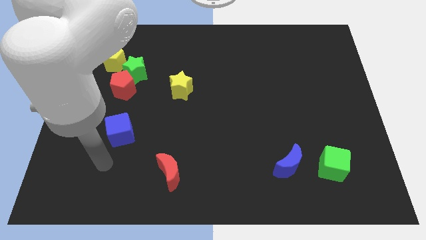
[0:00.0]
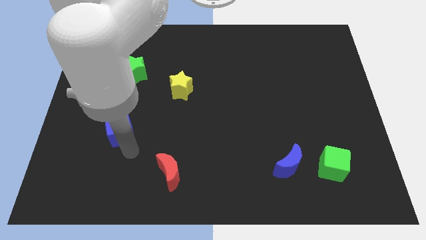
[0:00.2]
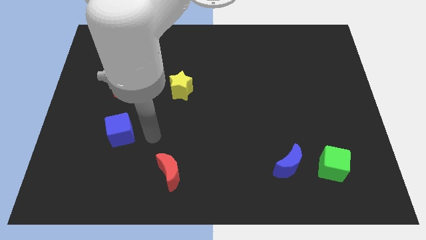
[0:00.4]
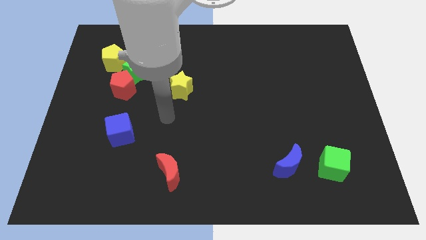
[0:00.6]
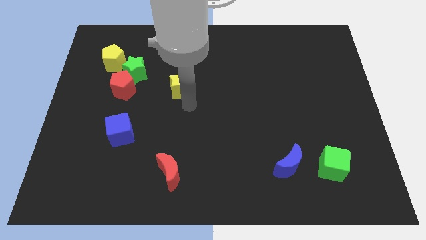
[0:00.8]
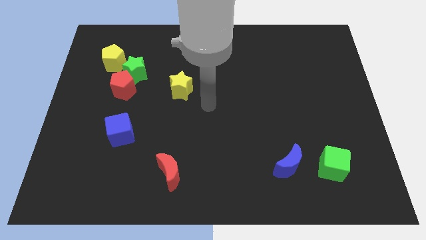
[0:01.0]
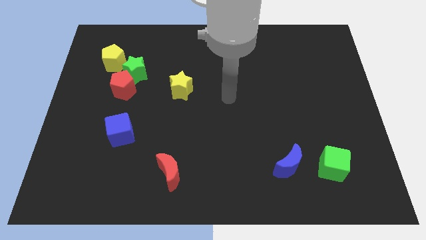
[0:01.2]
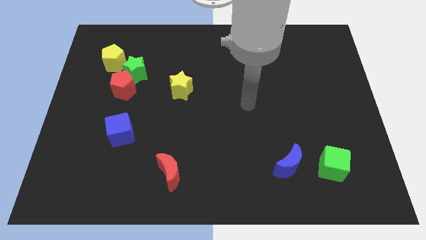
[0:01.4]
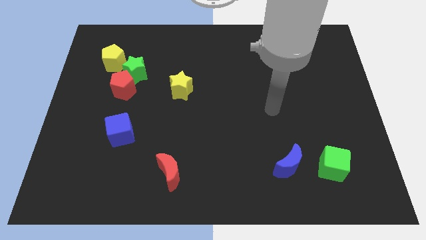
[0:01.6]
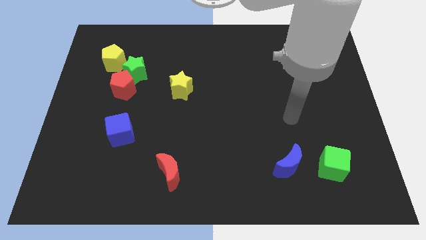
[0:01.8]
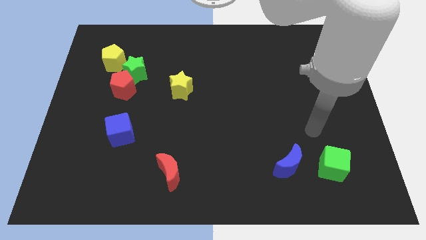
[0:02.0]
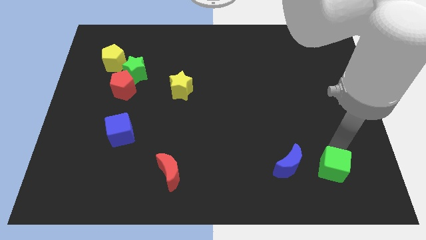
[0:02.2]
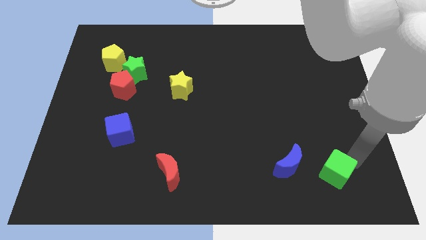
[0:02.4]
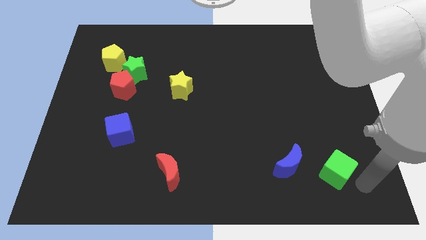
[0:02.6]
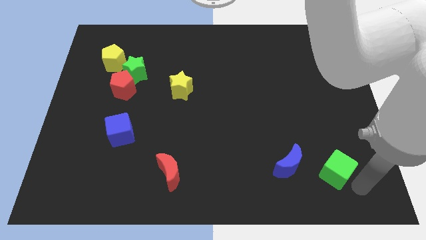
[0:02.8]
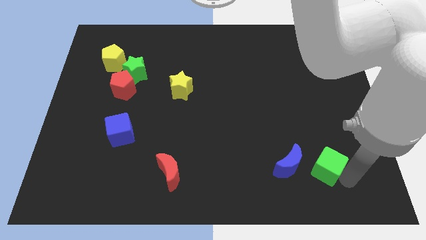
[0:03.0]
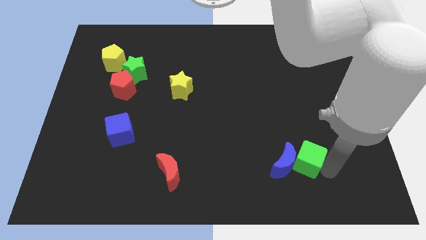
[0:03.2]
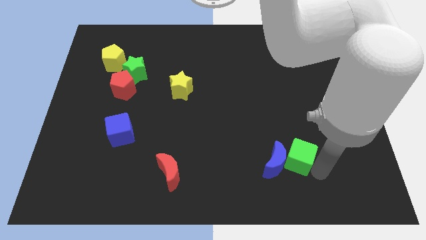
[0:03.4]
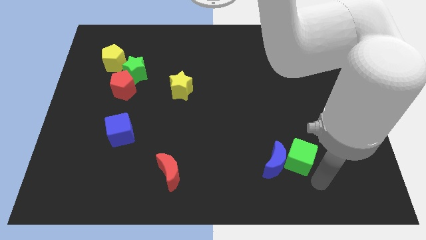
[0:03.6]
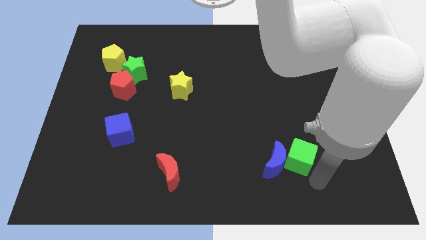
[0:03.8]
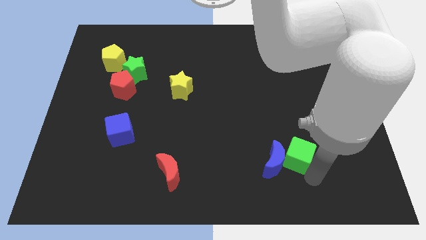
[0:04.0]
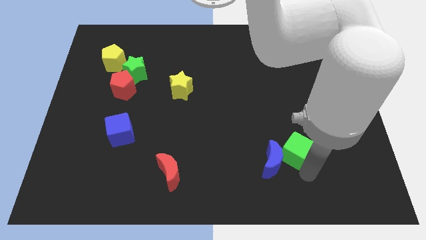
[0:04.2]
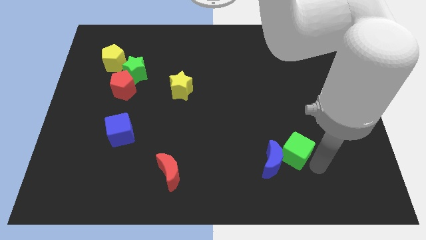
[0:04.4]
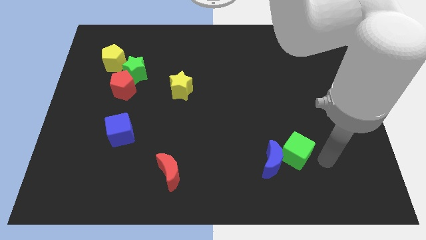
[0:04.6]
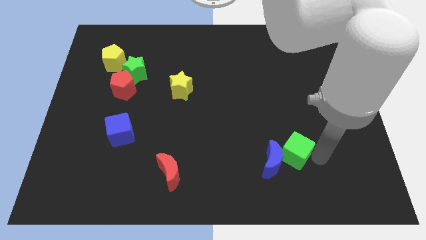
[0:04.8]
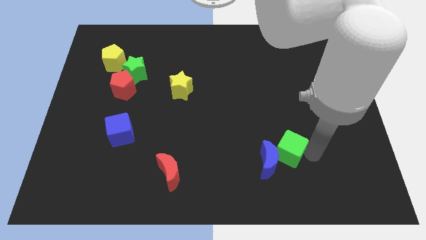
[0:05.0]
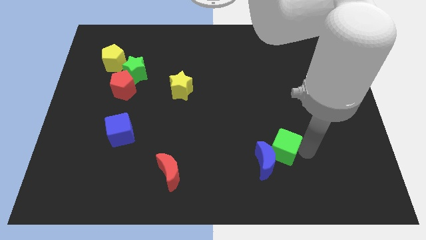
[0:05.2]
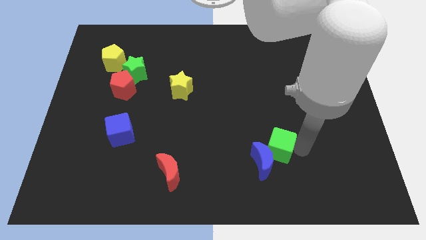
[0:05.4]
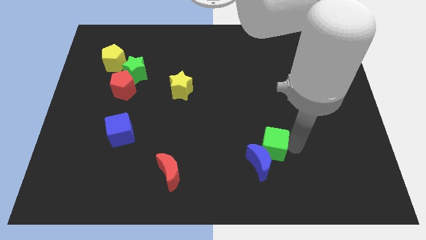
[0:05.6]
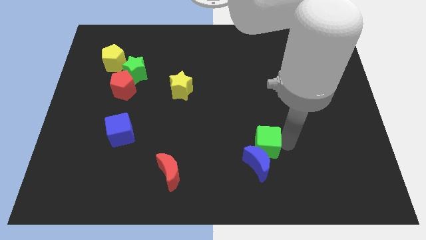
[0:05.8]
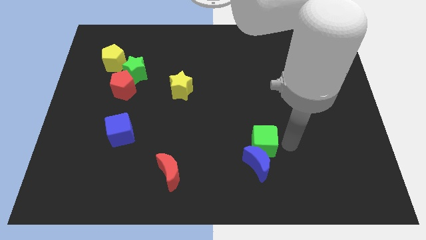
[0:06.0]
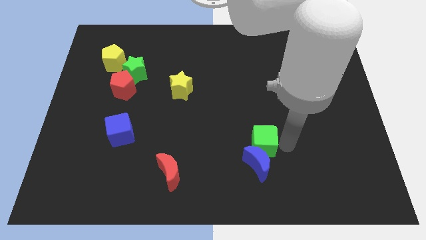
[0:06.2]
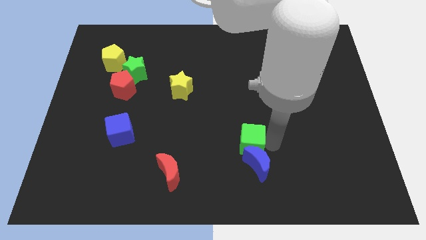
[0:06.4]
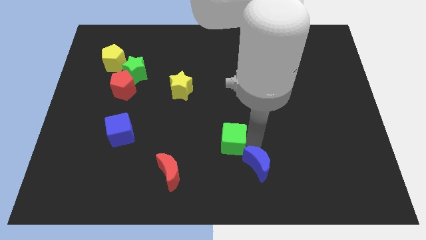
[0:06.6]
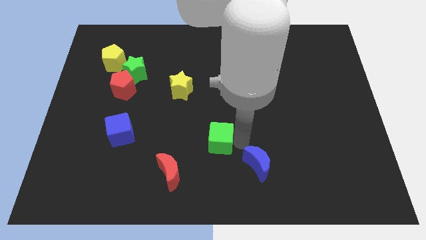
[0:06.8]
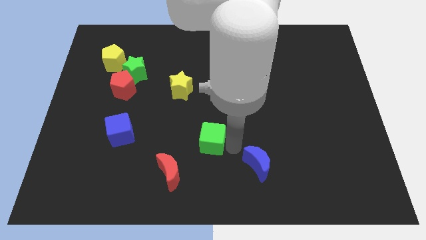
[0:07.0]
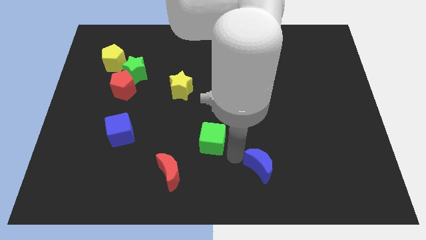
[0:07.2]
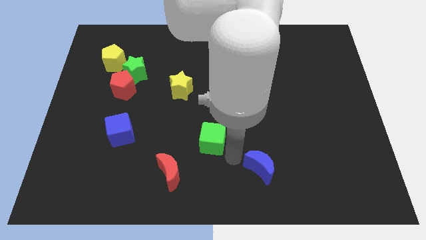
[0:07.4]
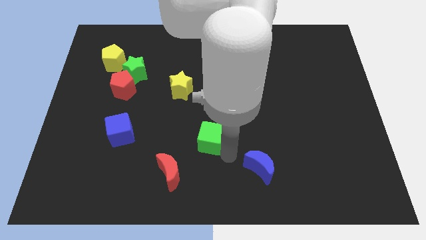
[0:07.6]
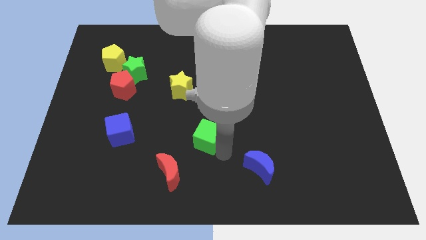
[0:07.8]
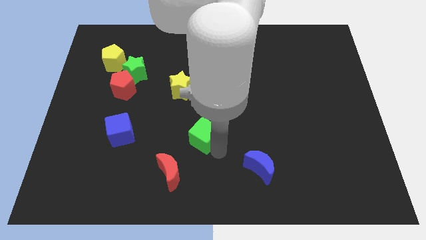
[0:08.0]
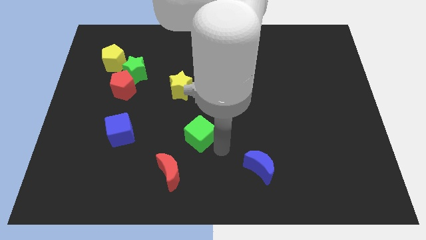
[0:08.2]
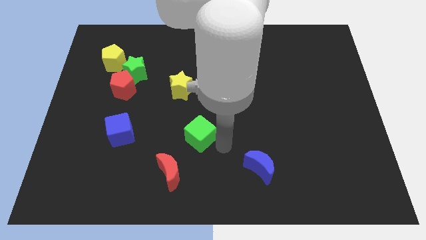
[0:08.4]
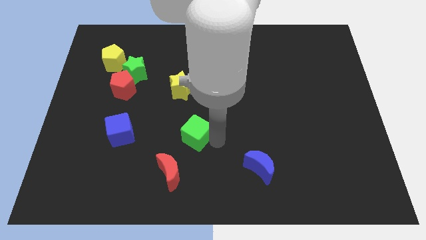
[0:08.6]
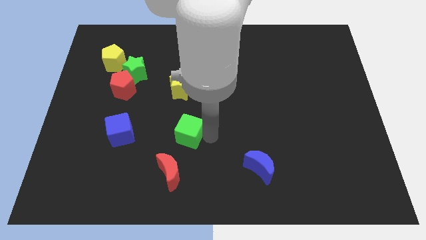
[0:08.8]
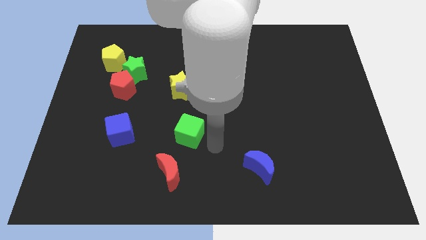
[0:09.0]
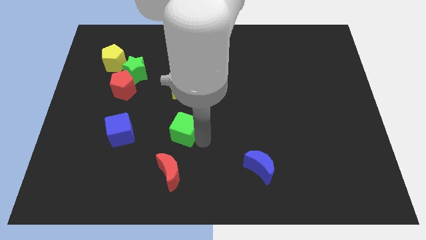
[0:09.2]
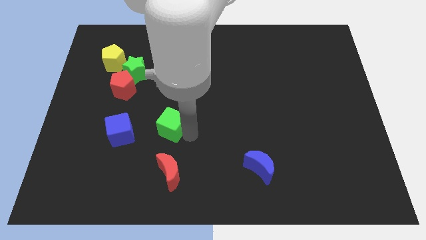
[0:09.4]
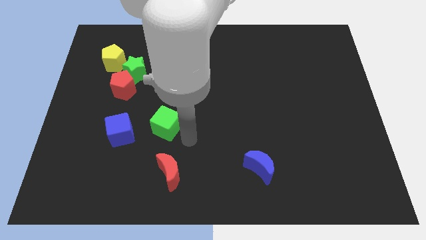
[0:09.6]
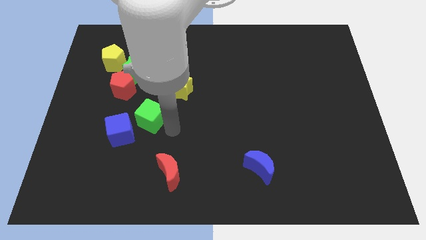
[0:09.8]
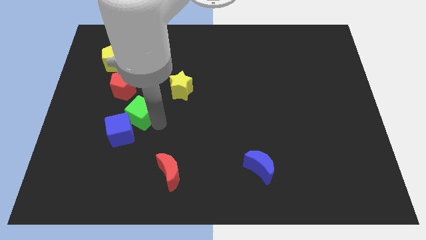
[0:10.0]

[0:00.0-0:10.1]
move the green cube to the bottom of the green star

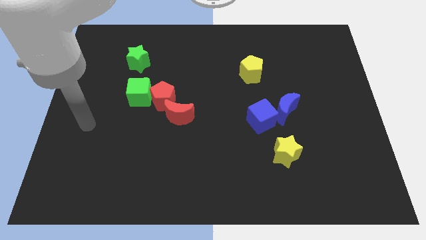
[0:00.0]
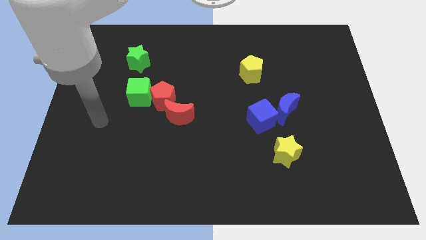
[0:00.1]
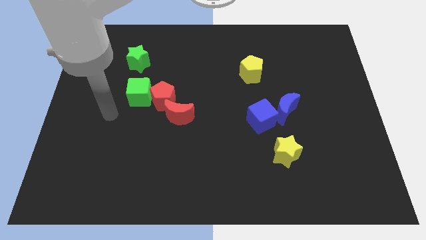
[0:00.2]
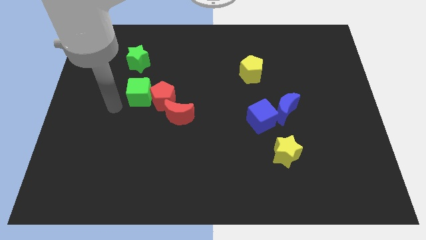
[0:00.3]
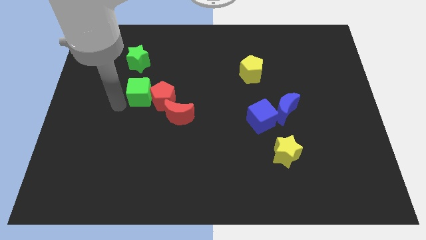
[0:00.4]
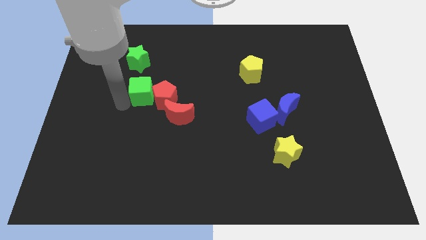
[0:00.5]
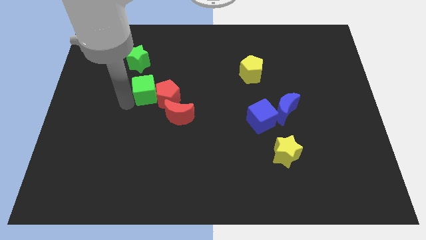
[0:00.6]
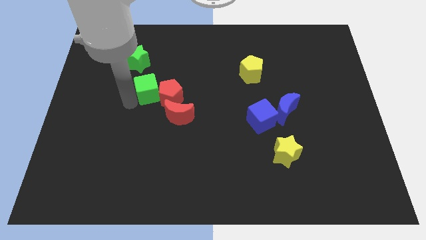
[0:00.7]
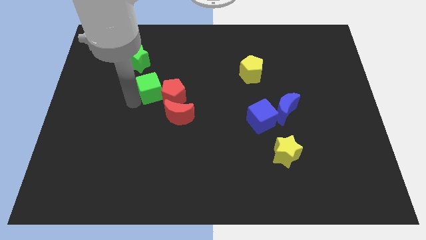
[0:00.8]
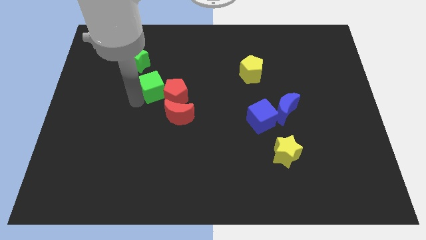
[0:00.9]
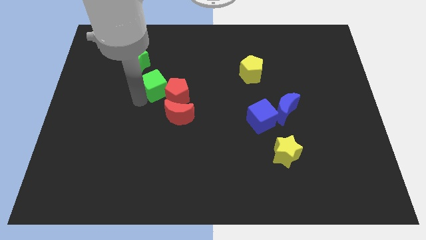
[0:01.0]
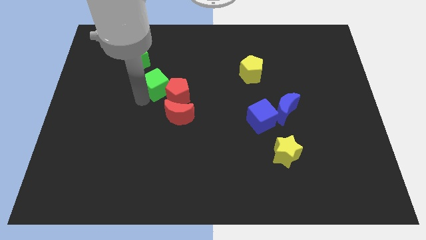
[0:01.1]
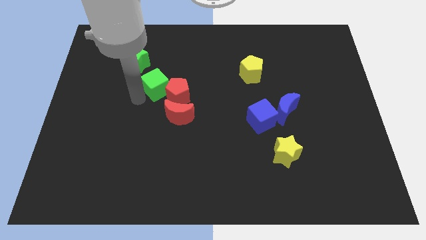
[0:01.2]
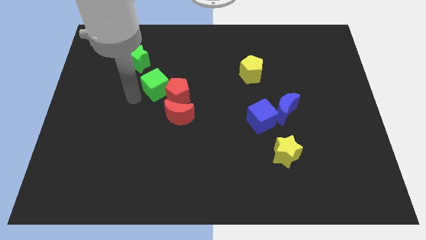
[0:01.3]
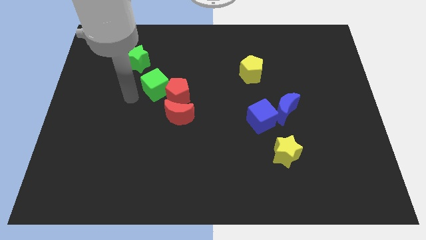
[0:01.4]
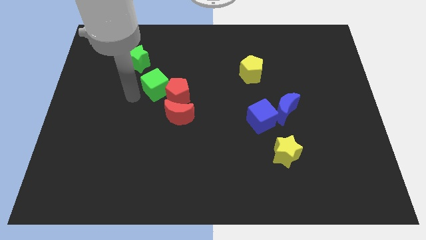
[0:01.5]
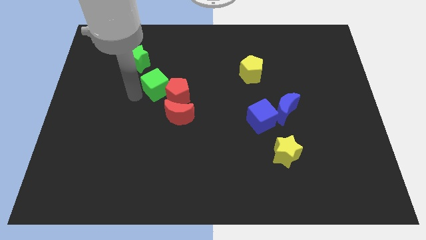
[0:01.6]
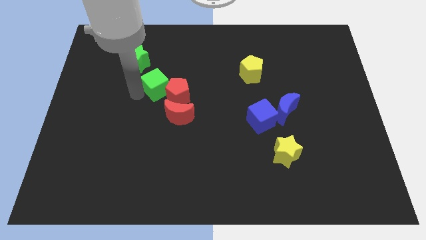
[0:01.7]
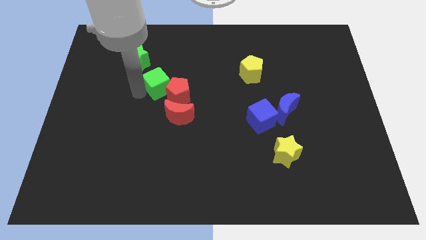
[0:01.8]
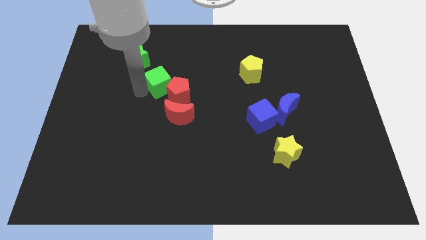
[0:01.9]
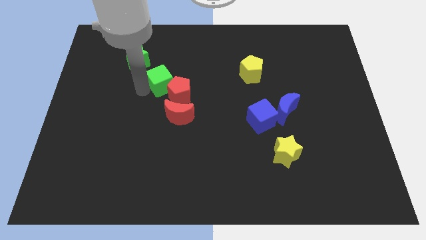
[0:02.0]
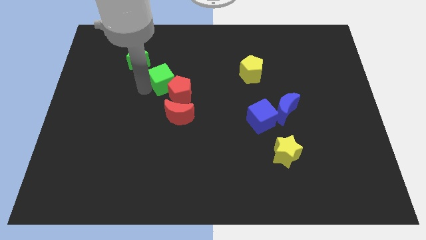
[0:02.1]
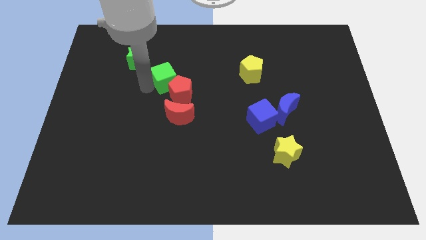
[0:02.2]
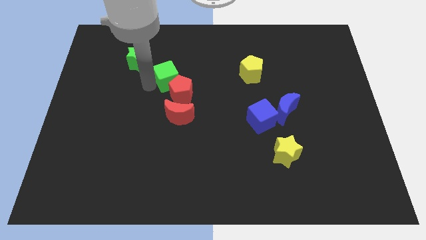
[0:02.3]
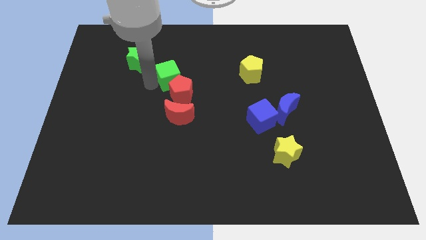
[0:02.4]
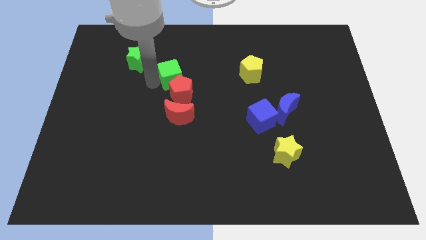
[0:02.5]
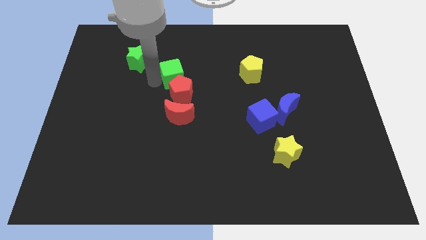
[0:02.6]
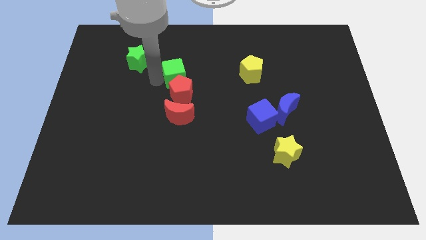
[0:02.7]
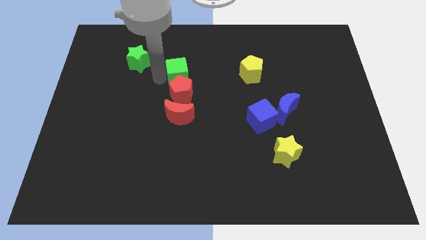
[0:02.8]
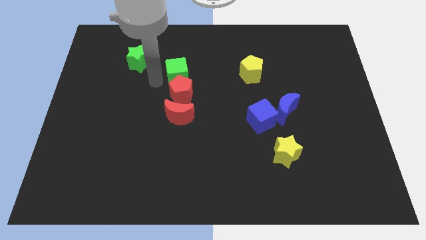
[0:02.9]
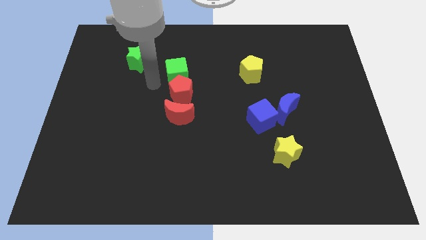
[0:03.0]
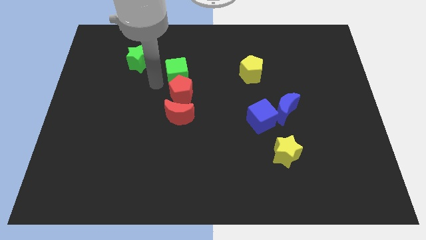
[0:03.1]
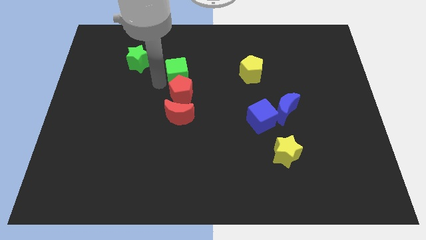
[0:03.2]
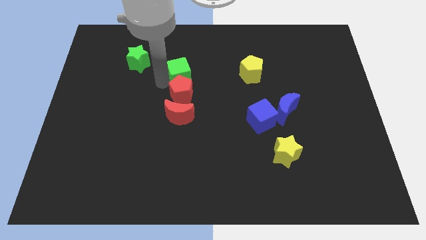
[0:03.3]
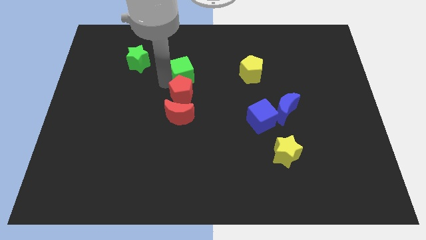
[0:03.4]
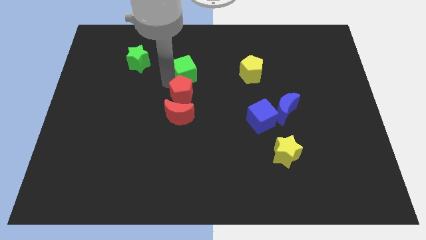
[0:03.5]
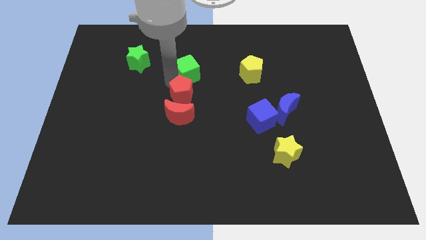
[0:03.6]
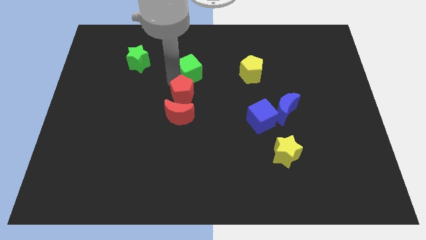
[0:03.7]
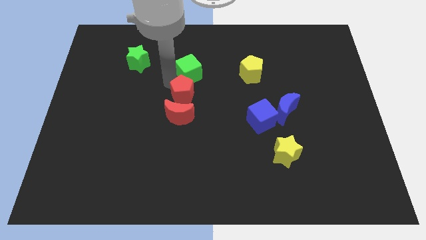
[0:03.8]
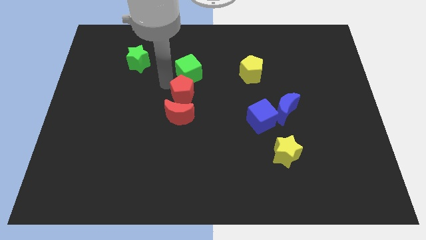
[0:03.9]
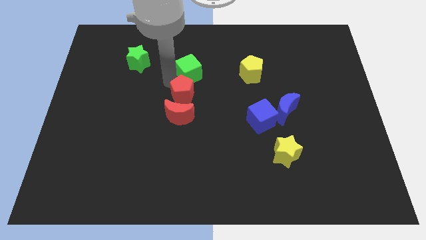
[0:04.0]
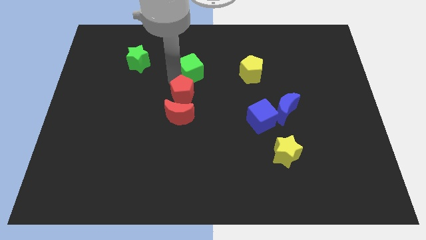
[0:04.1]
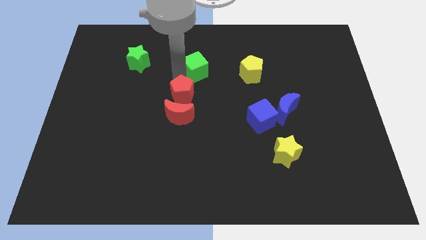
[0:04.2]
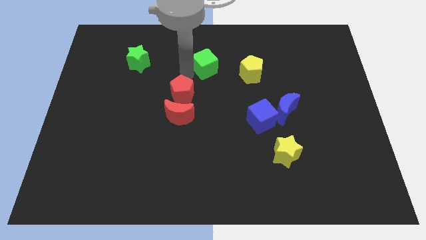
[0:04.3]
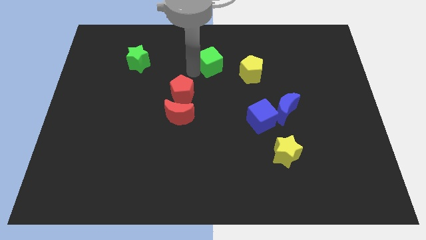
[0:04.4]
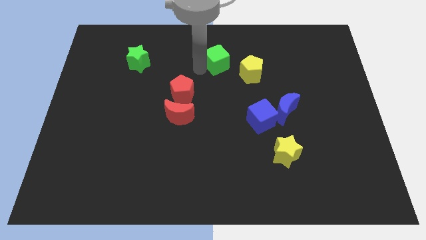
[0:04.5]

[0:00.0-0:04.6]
push the green cube to the top left of the yellow pentagon
